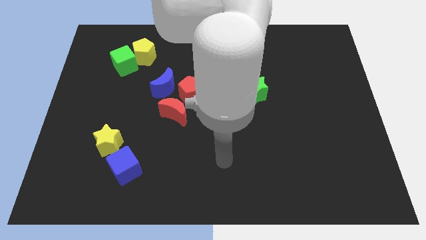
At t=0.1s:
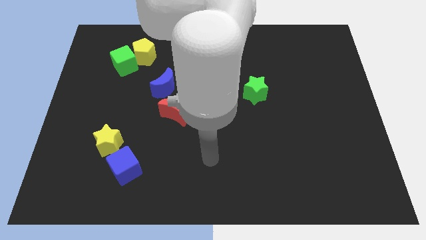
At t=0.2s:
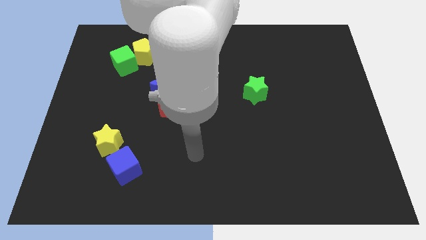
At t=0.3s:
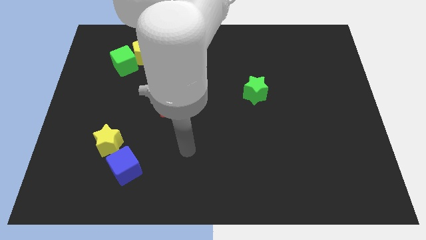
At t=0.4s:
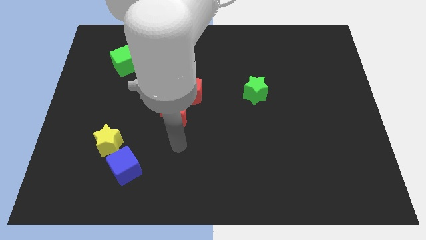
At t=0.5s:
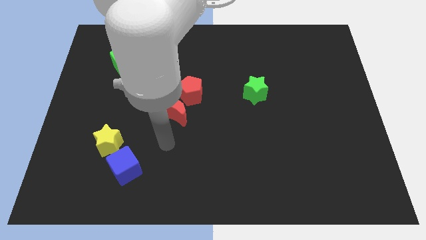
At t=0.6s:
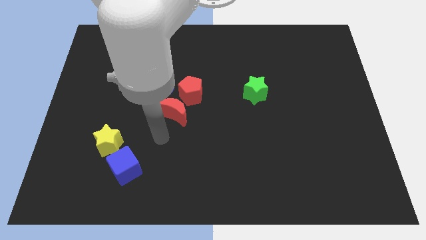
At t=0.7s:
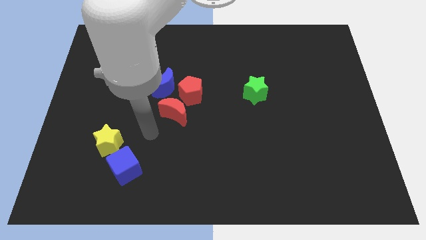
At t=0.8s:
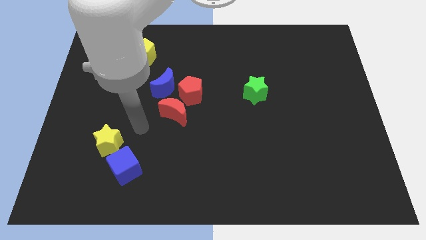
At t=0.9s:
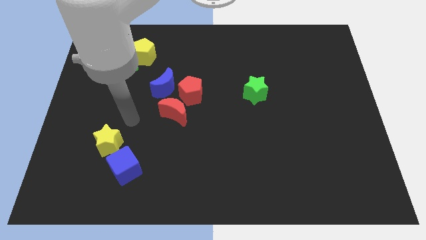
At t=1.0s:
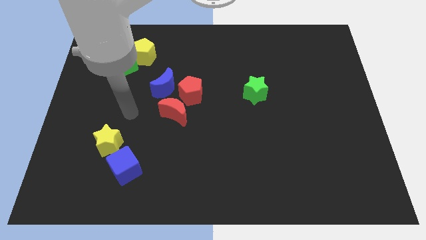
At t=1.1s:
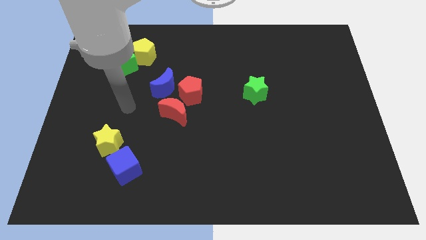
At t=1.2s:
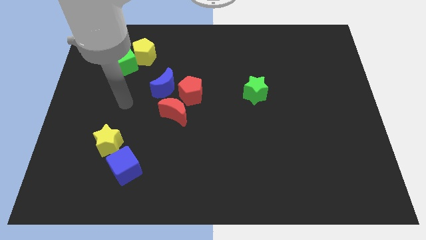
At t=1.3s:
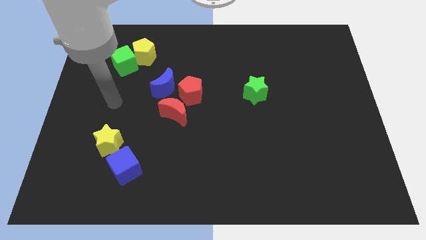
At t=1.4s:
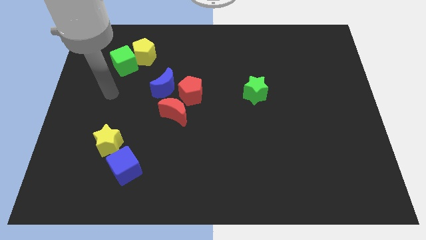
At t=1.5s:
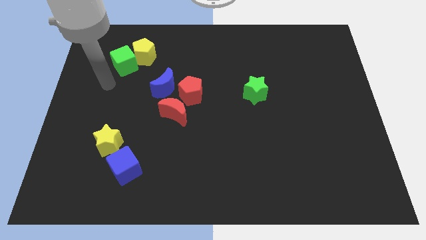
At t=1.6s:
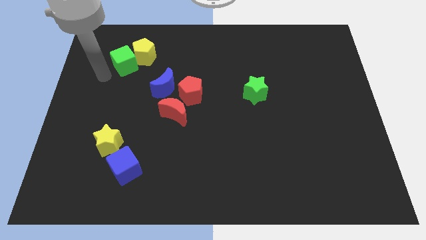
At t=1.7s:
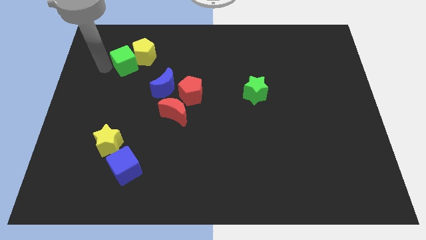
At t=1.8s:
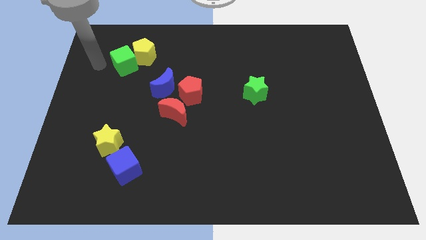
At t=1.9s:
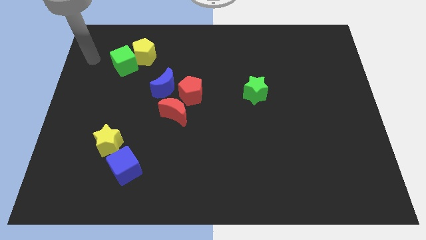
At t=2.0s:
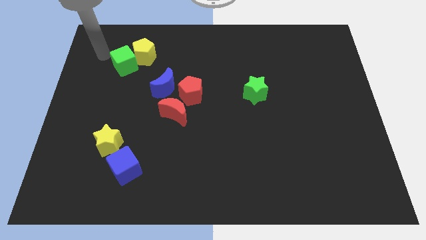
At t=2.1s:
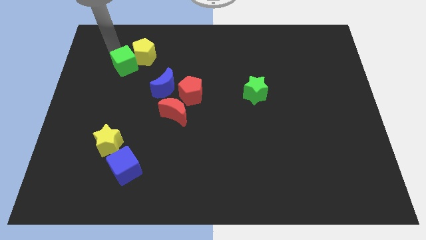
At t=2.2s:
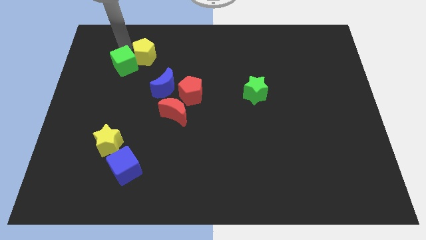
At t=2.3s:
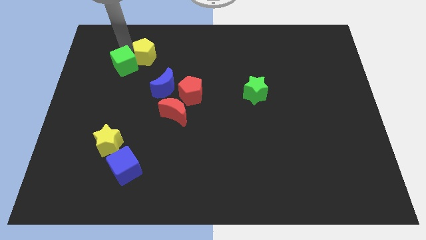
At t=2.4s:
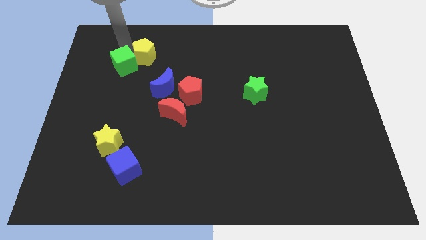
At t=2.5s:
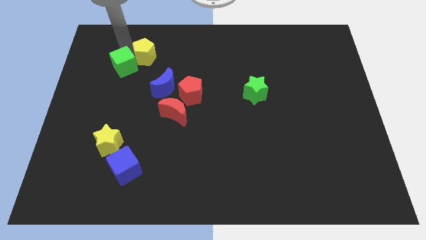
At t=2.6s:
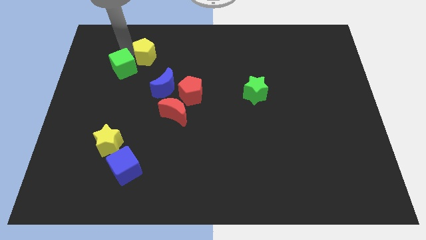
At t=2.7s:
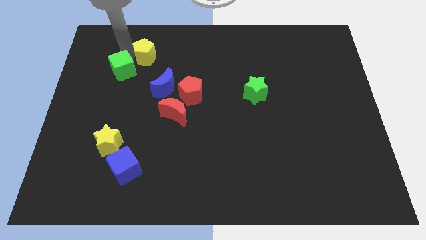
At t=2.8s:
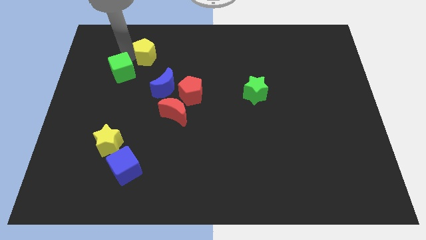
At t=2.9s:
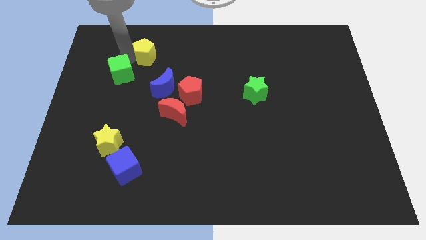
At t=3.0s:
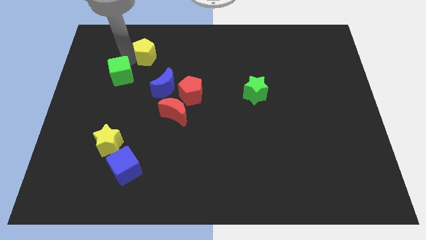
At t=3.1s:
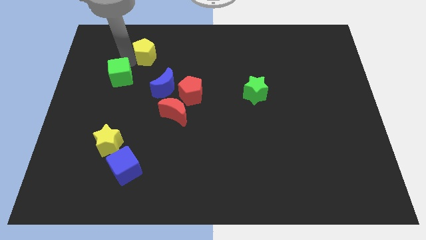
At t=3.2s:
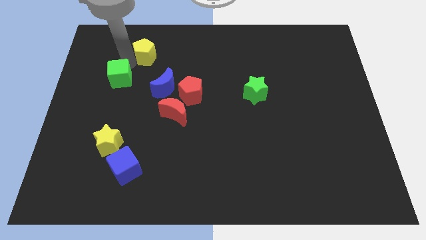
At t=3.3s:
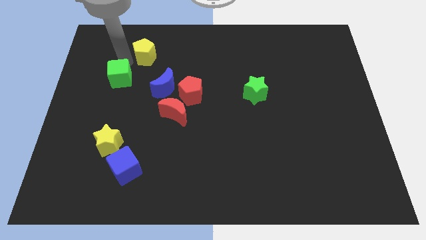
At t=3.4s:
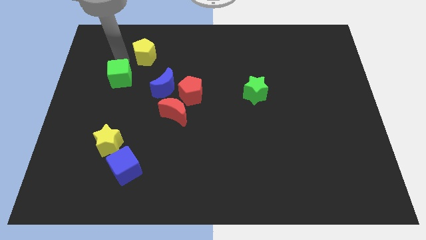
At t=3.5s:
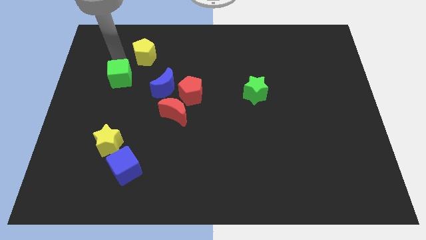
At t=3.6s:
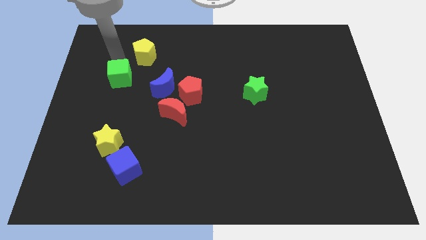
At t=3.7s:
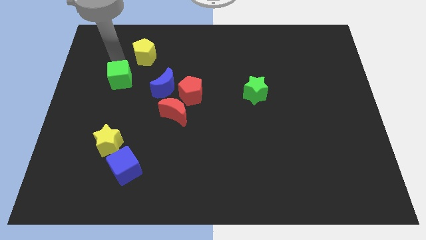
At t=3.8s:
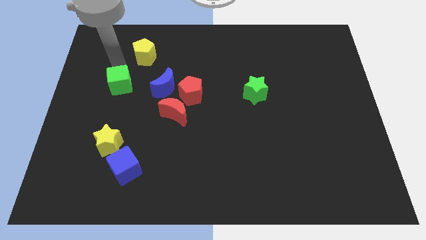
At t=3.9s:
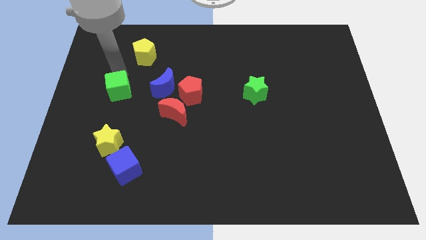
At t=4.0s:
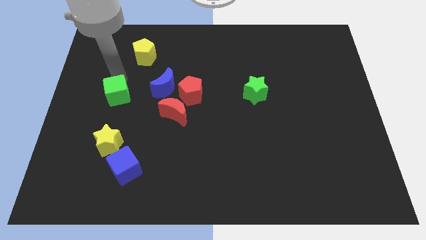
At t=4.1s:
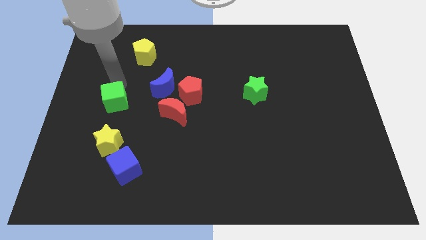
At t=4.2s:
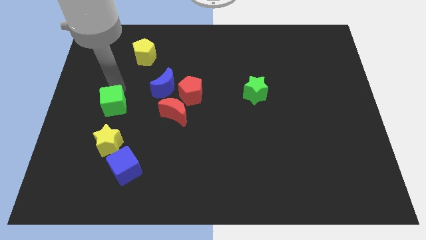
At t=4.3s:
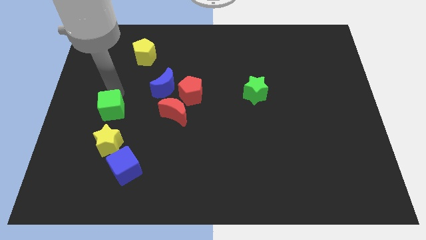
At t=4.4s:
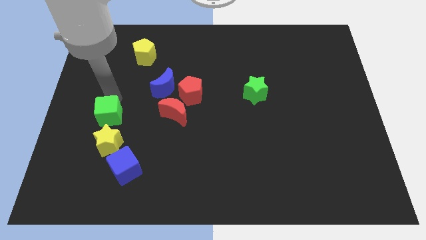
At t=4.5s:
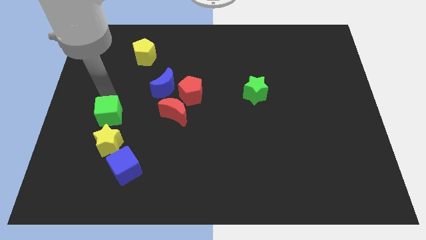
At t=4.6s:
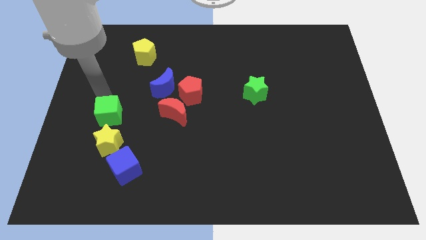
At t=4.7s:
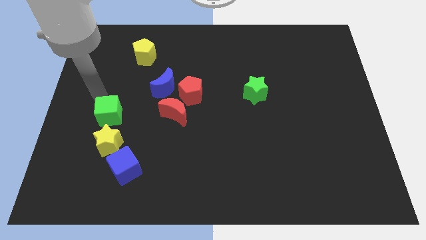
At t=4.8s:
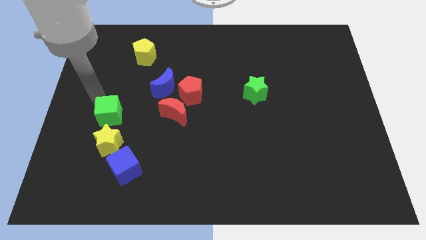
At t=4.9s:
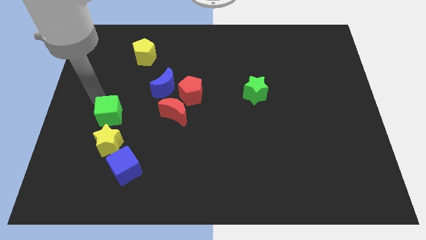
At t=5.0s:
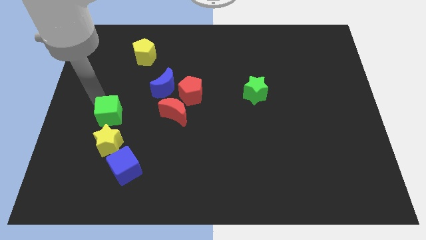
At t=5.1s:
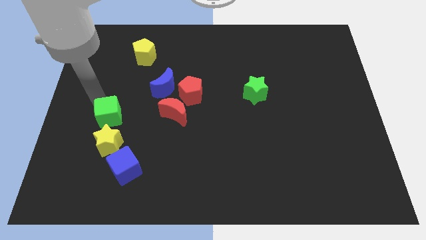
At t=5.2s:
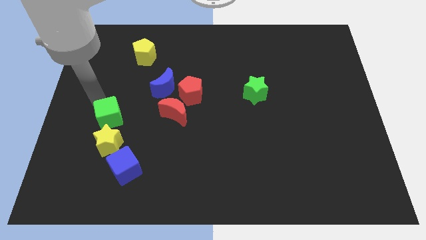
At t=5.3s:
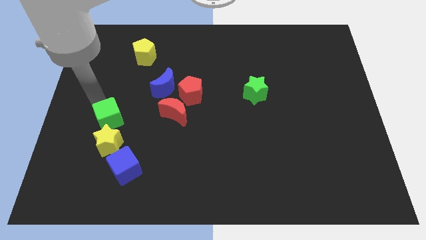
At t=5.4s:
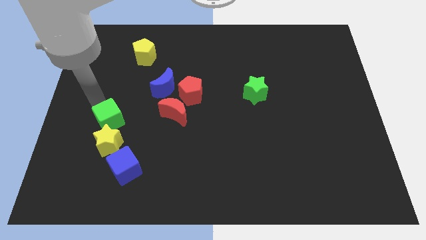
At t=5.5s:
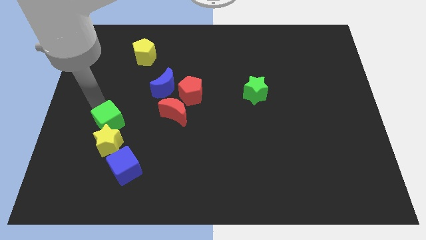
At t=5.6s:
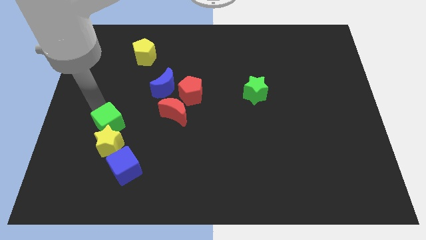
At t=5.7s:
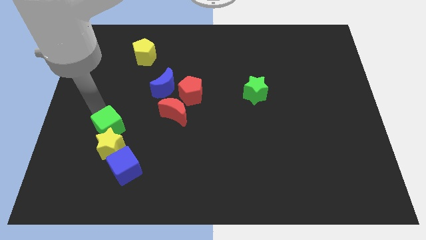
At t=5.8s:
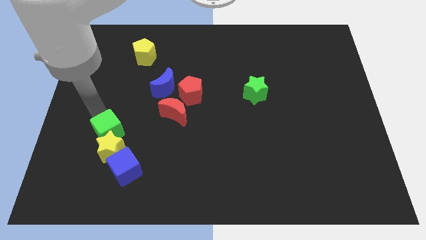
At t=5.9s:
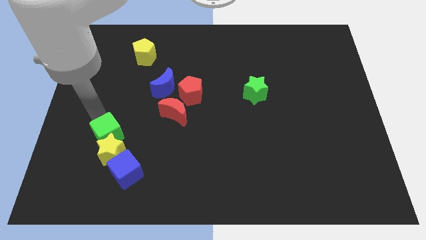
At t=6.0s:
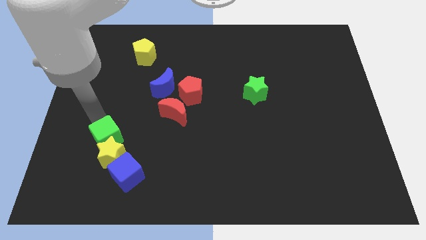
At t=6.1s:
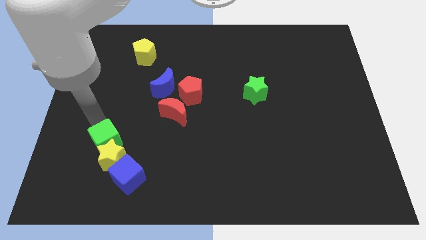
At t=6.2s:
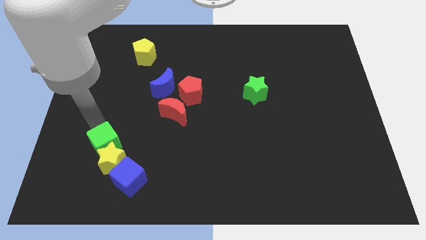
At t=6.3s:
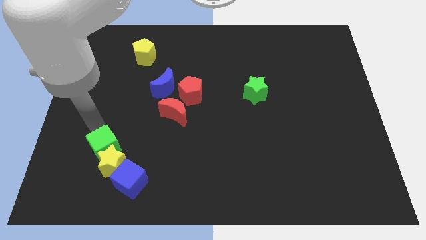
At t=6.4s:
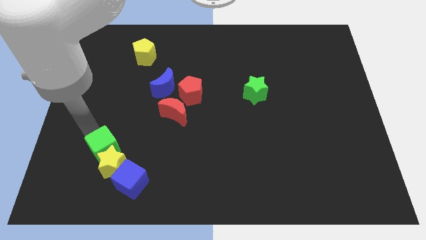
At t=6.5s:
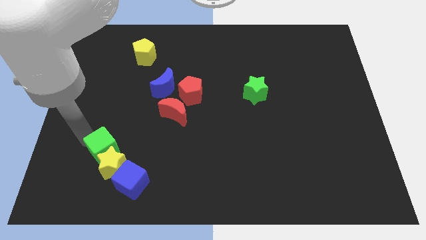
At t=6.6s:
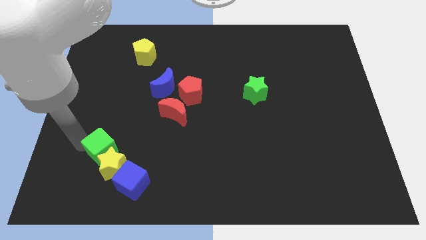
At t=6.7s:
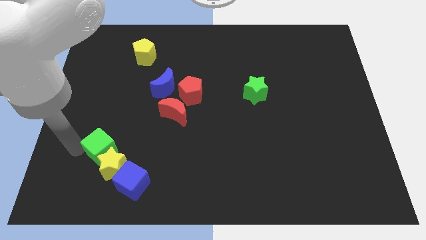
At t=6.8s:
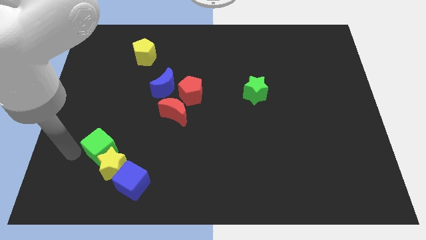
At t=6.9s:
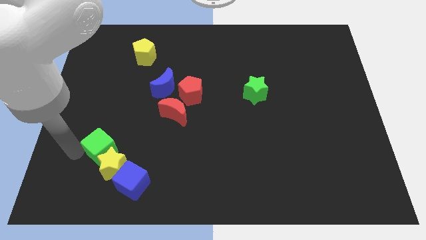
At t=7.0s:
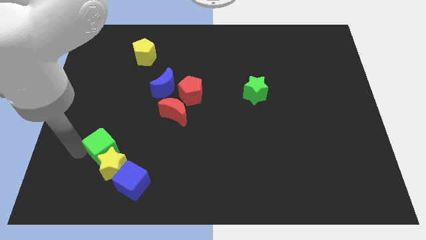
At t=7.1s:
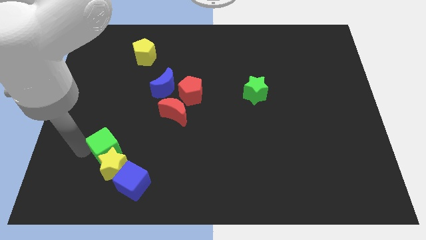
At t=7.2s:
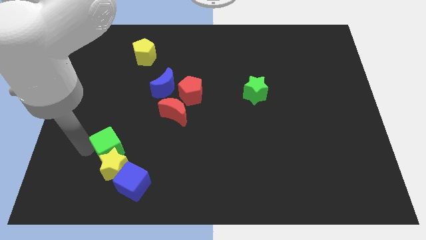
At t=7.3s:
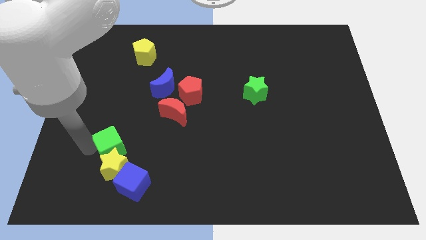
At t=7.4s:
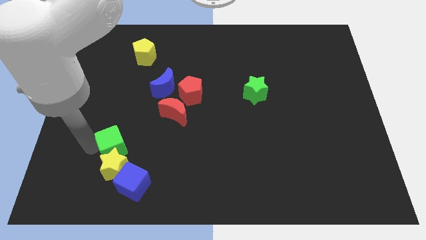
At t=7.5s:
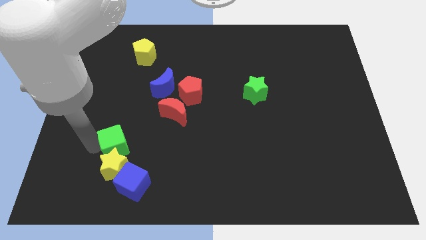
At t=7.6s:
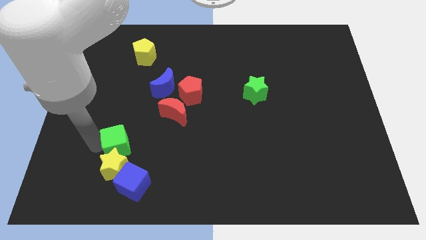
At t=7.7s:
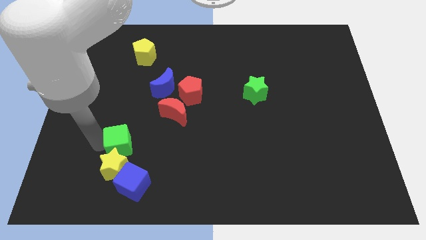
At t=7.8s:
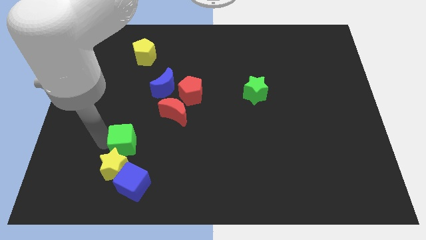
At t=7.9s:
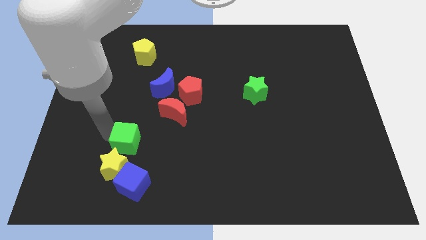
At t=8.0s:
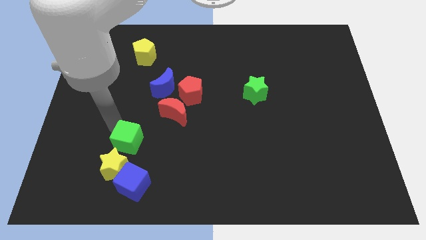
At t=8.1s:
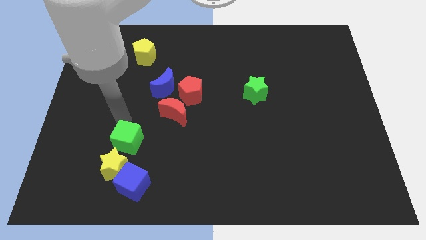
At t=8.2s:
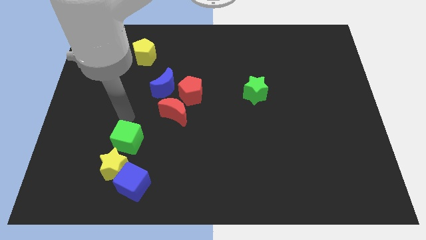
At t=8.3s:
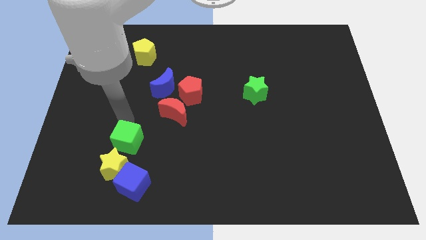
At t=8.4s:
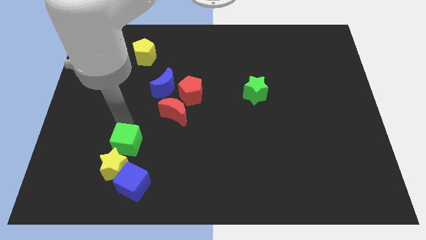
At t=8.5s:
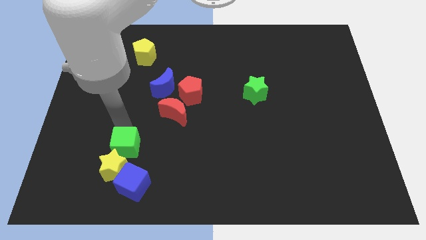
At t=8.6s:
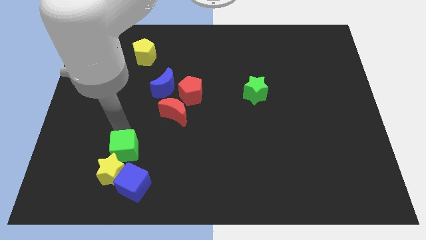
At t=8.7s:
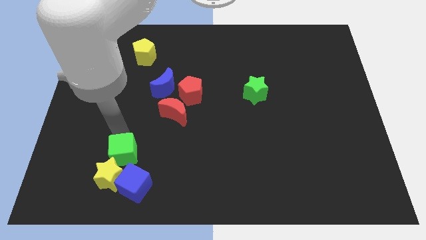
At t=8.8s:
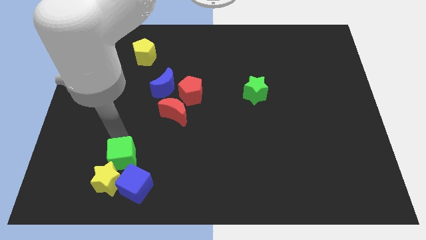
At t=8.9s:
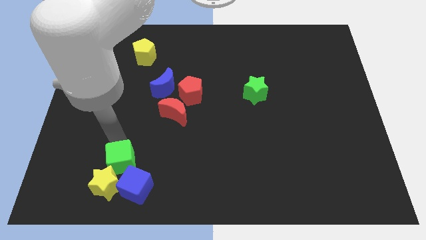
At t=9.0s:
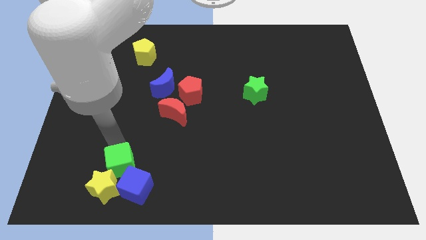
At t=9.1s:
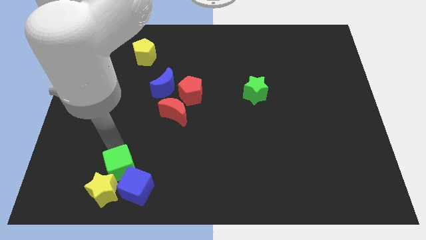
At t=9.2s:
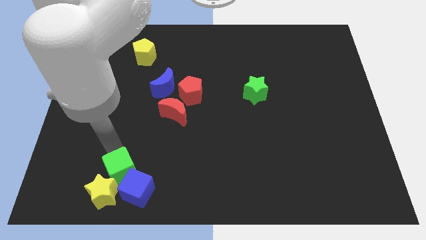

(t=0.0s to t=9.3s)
move the green cube close to the blue cube
